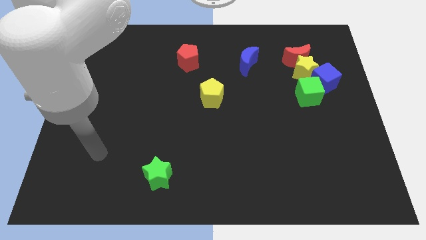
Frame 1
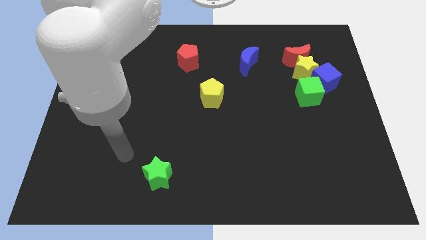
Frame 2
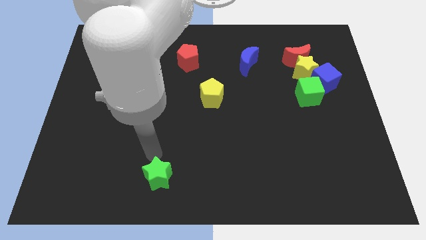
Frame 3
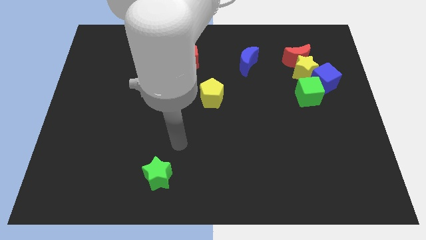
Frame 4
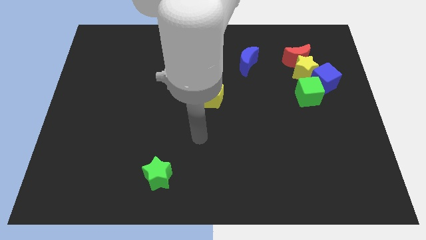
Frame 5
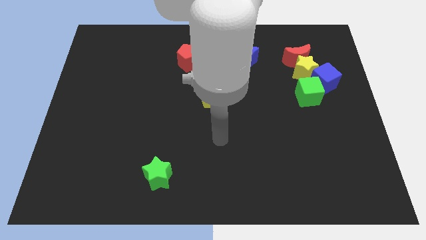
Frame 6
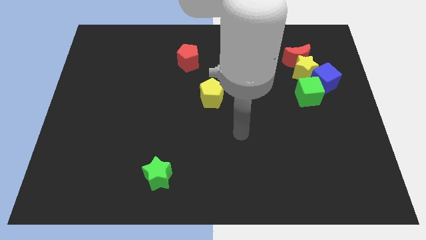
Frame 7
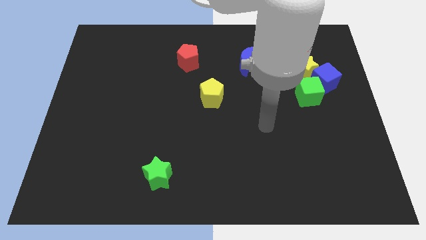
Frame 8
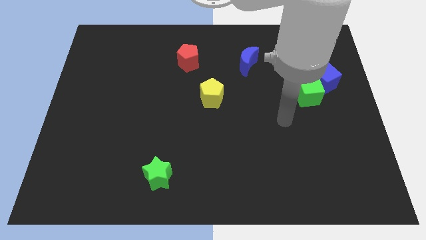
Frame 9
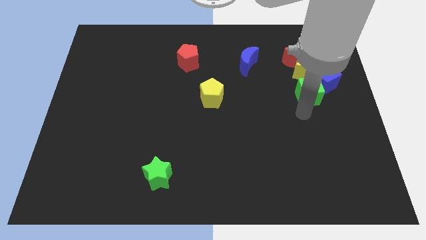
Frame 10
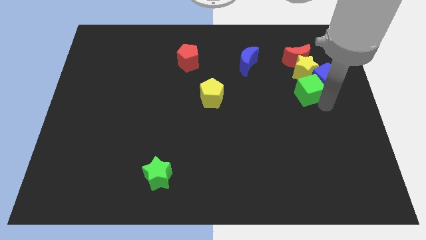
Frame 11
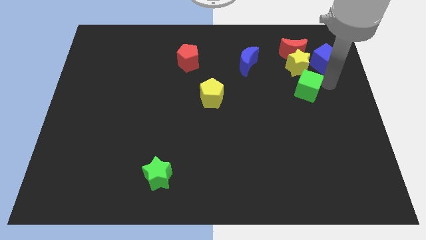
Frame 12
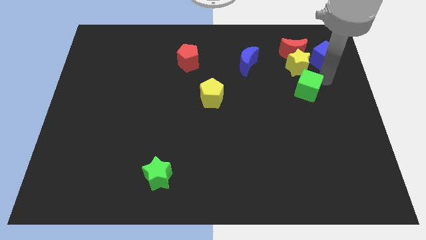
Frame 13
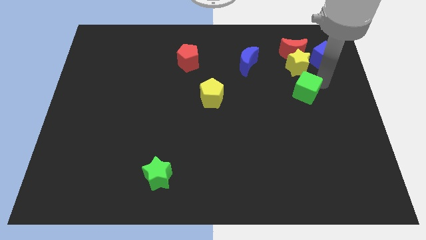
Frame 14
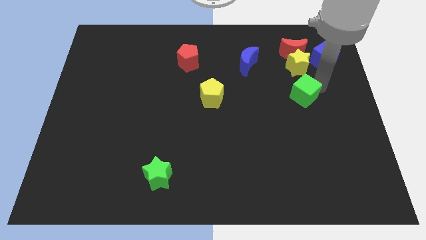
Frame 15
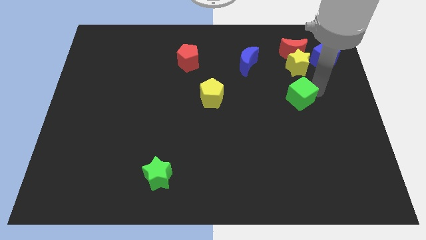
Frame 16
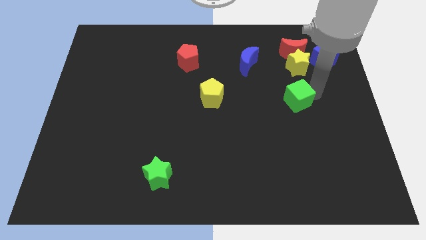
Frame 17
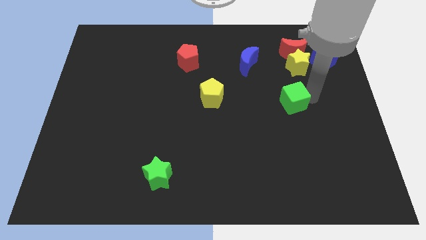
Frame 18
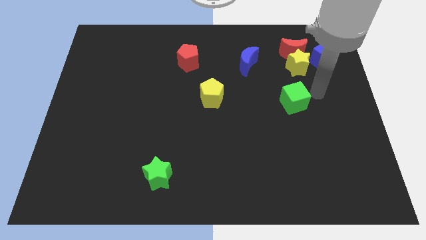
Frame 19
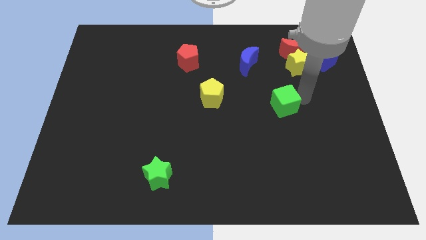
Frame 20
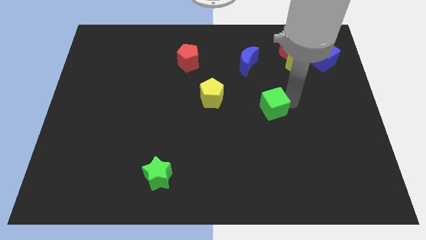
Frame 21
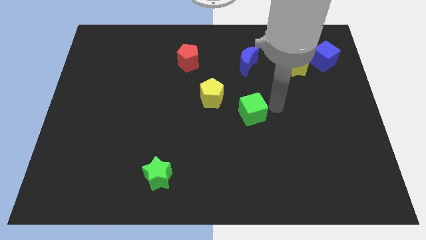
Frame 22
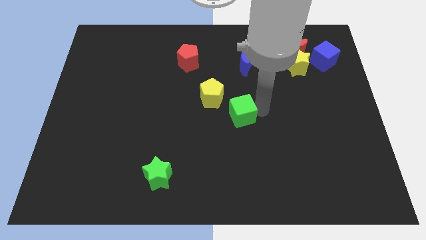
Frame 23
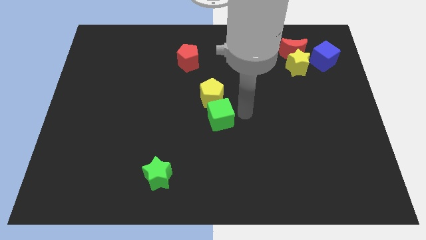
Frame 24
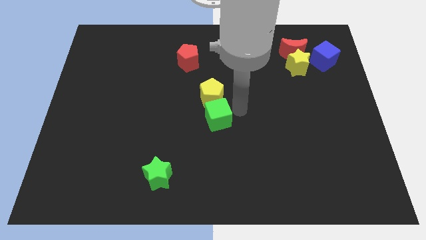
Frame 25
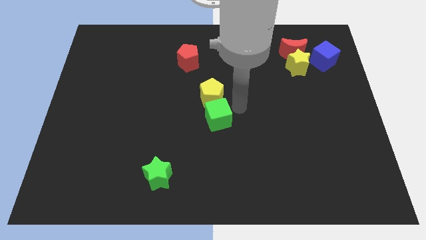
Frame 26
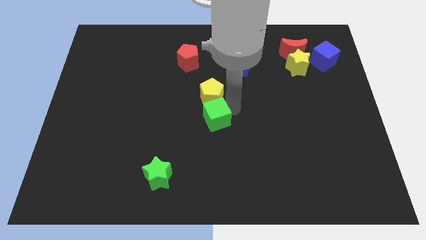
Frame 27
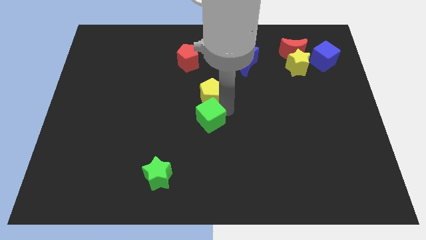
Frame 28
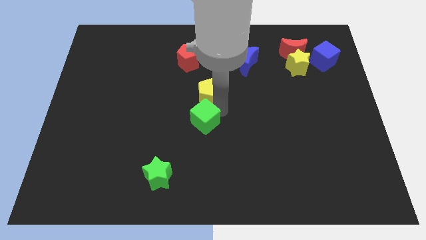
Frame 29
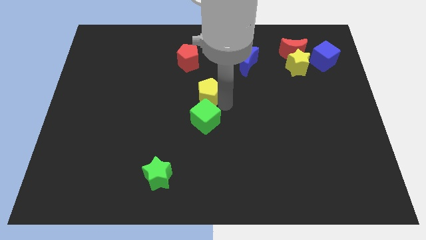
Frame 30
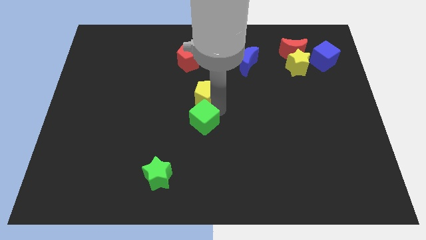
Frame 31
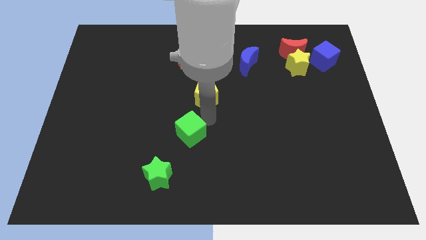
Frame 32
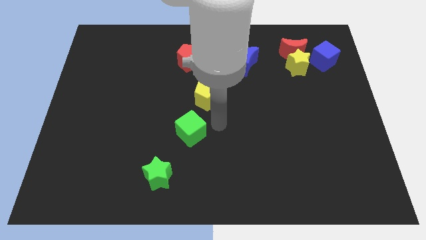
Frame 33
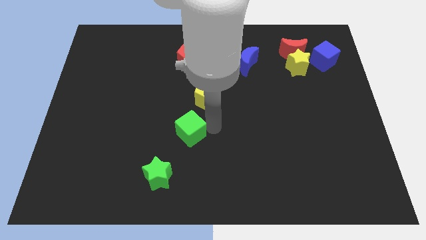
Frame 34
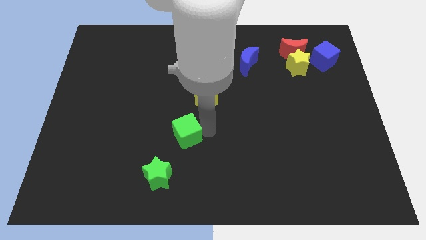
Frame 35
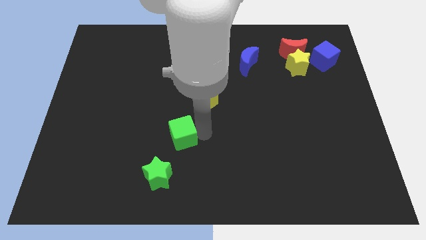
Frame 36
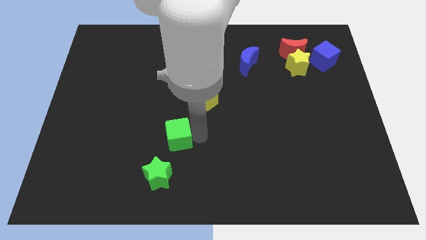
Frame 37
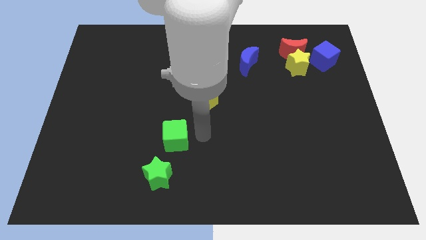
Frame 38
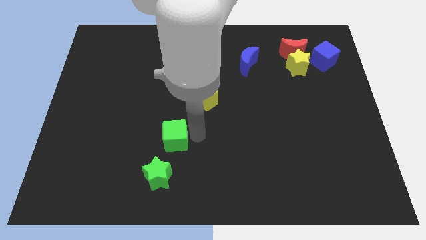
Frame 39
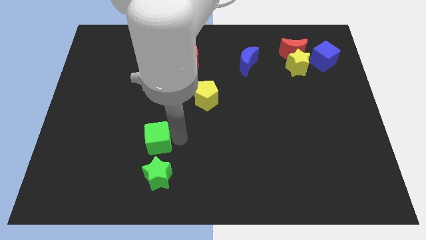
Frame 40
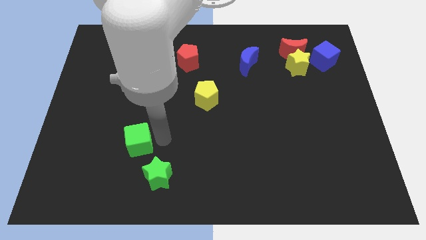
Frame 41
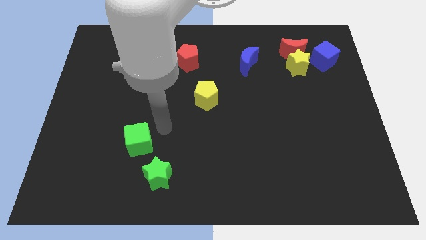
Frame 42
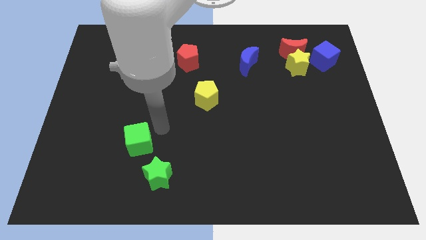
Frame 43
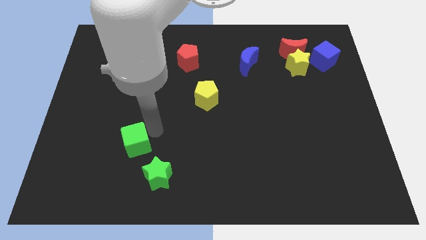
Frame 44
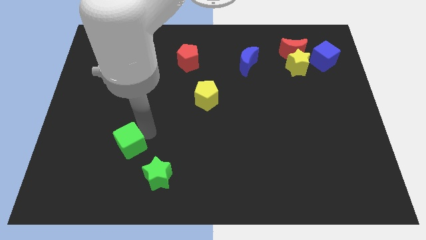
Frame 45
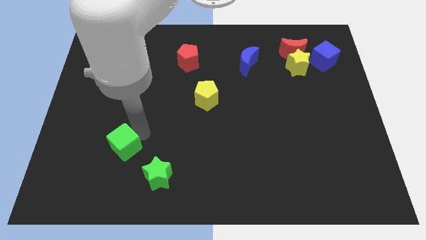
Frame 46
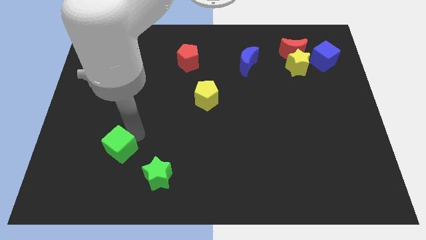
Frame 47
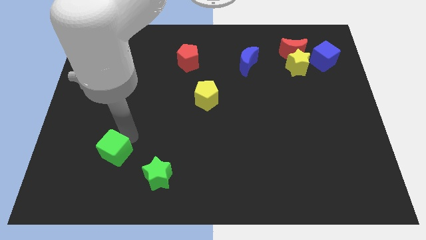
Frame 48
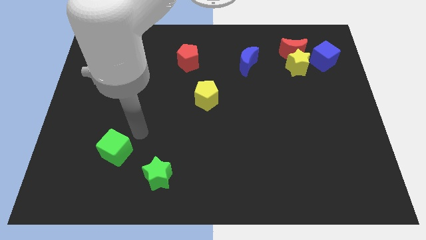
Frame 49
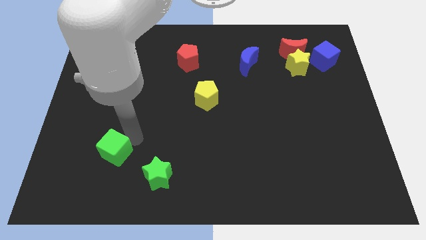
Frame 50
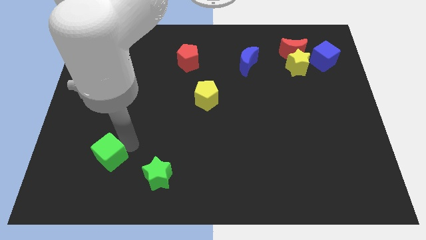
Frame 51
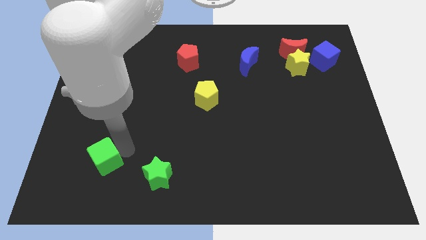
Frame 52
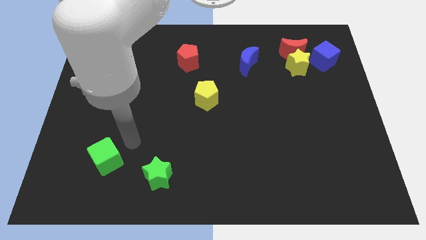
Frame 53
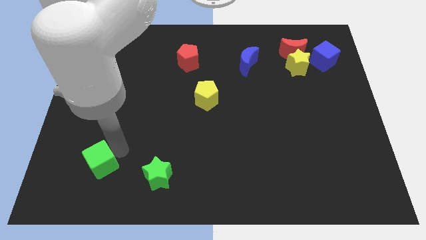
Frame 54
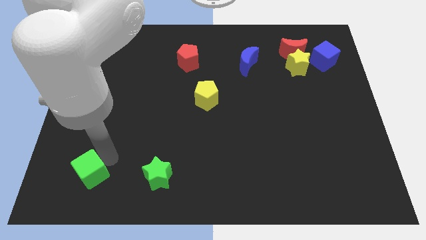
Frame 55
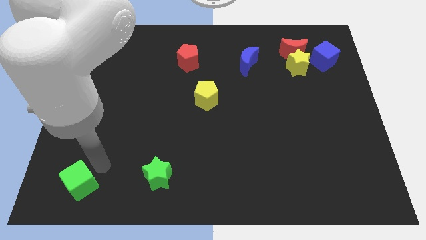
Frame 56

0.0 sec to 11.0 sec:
slide the green cube to the lower left corner

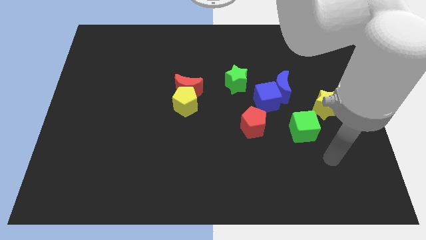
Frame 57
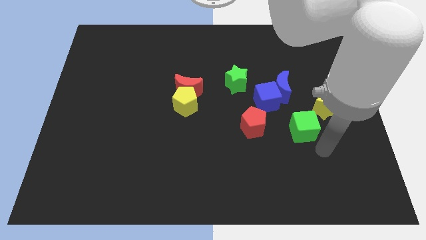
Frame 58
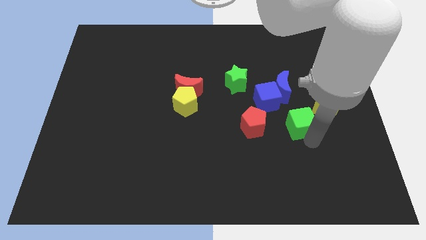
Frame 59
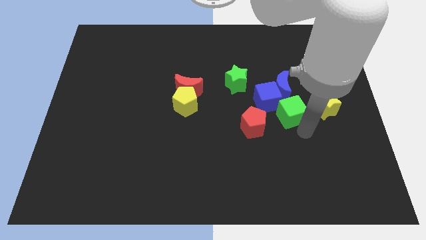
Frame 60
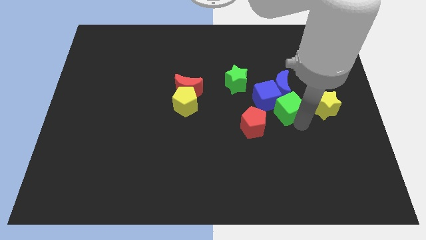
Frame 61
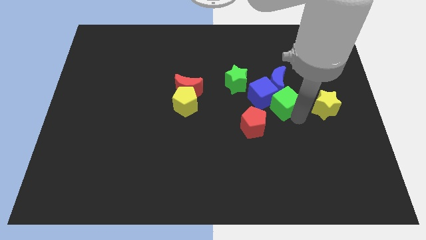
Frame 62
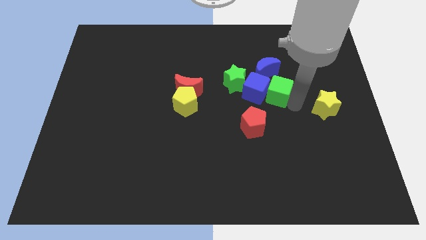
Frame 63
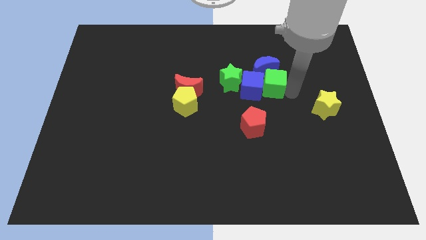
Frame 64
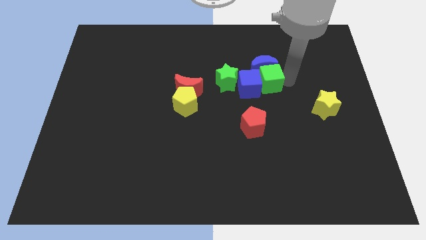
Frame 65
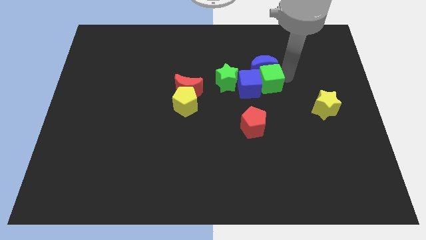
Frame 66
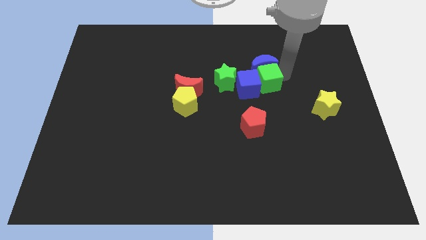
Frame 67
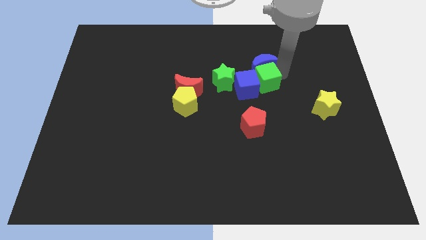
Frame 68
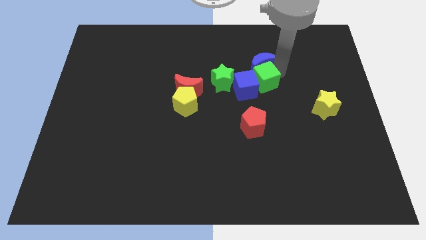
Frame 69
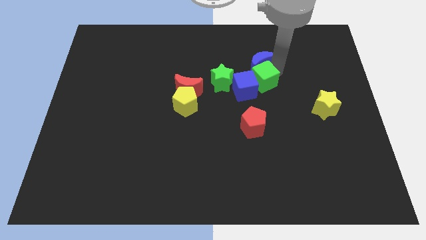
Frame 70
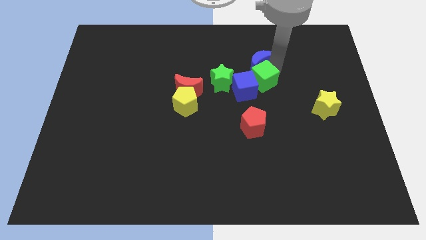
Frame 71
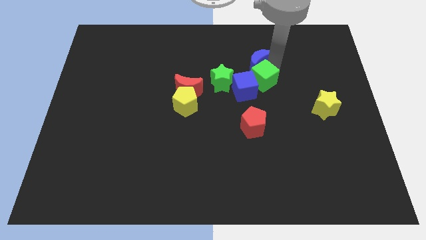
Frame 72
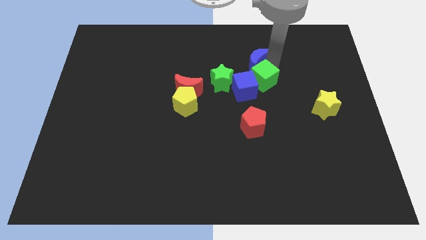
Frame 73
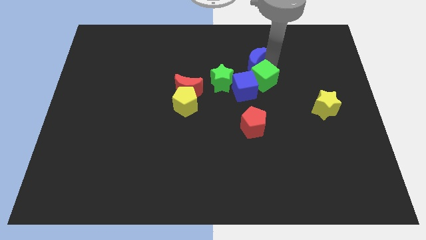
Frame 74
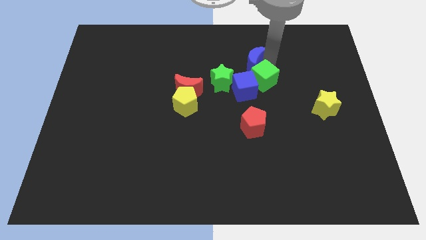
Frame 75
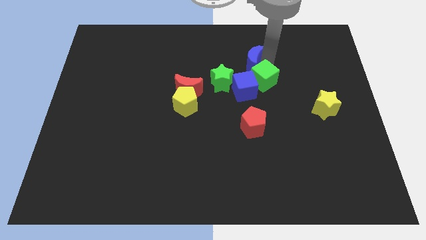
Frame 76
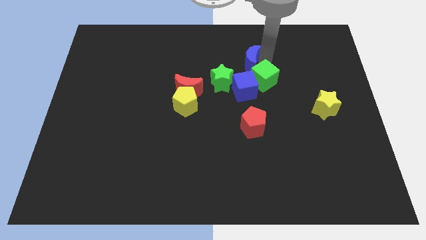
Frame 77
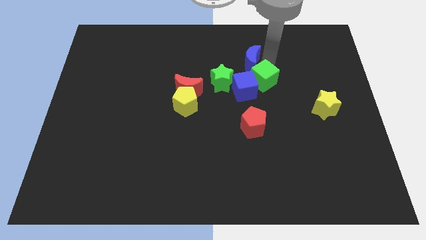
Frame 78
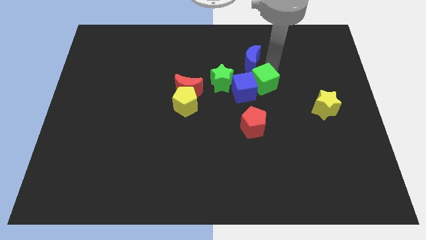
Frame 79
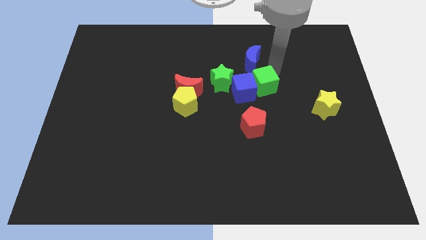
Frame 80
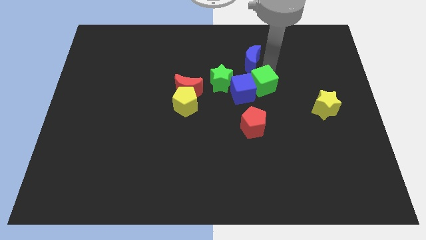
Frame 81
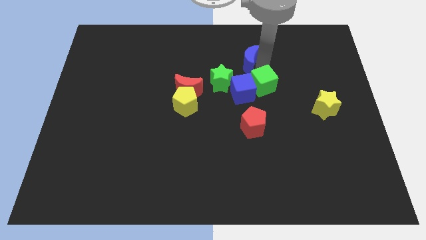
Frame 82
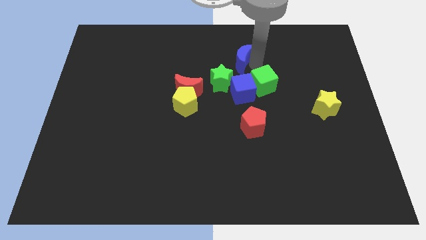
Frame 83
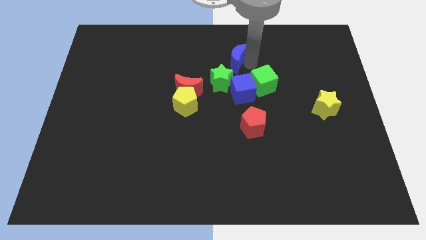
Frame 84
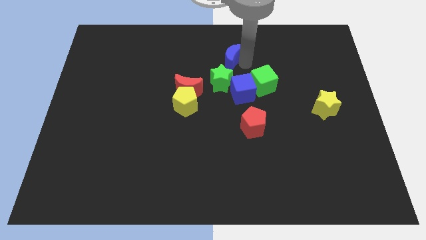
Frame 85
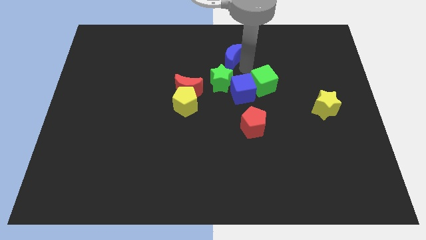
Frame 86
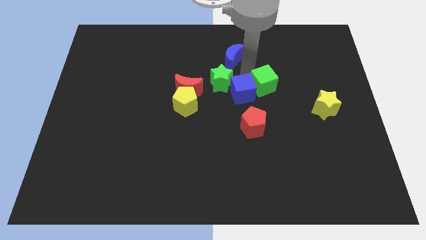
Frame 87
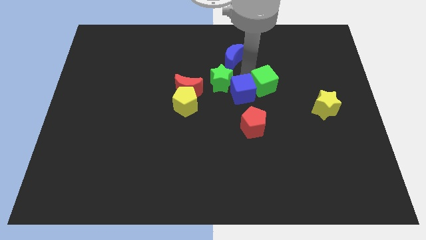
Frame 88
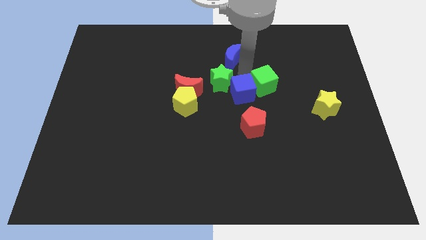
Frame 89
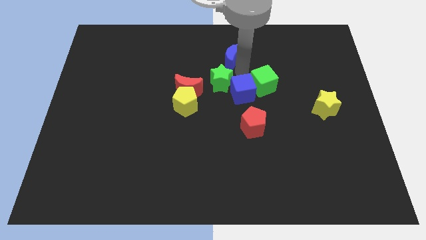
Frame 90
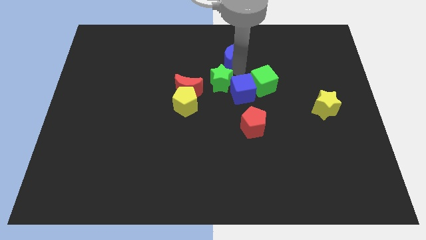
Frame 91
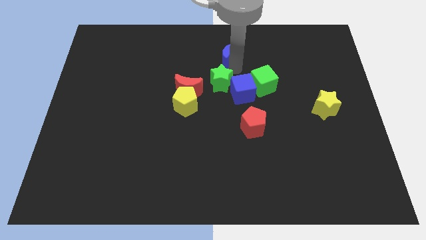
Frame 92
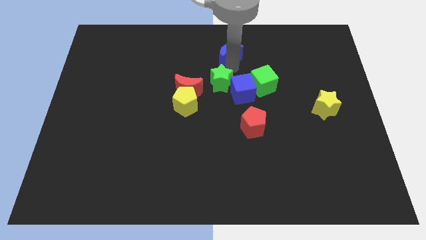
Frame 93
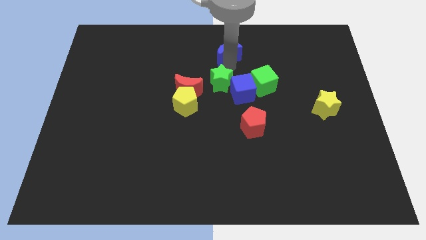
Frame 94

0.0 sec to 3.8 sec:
put the blue moon to the top side
